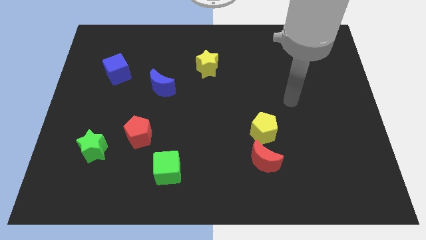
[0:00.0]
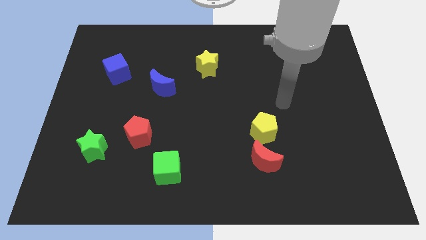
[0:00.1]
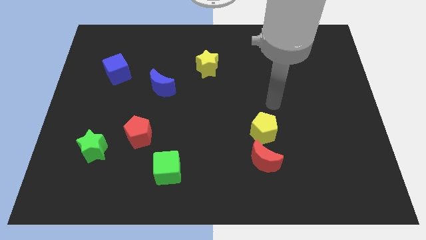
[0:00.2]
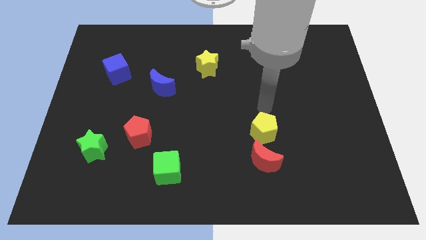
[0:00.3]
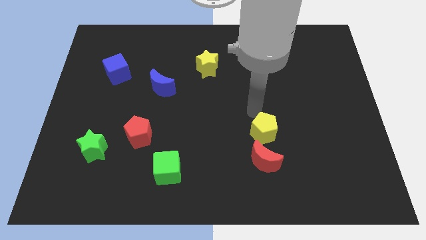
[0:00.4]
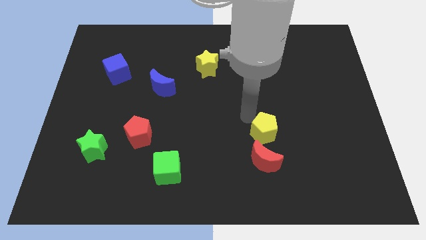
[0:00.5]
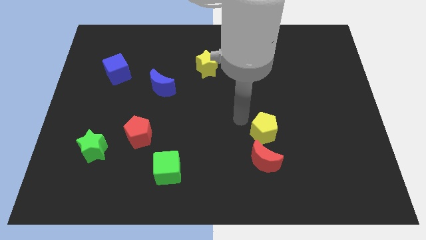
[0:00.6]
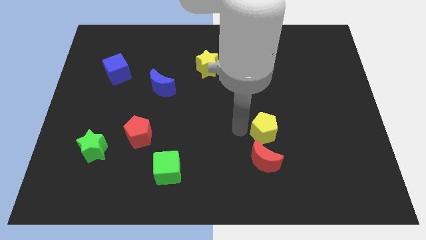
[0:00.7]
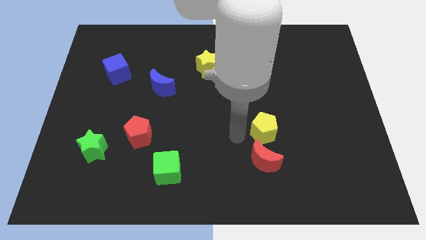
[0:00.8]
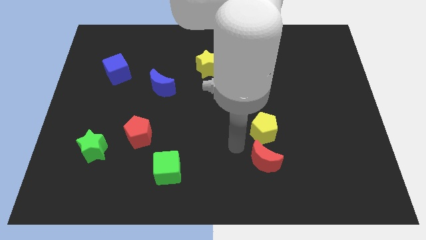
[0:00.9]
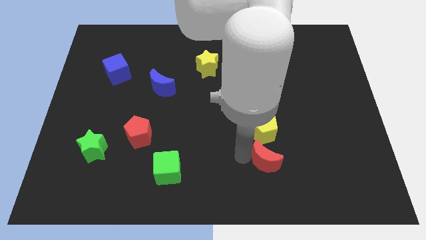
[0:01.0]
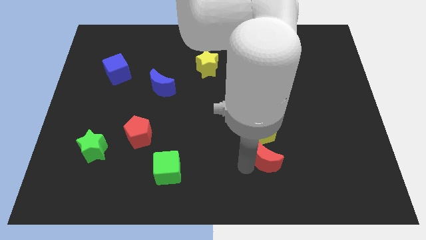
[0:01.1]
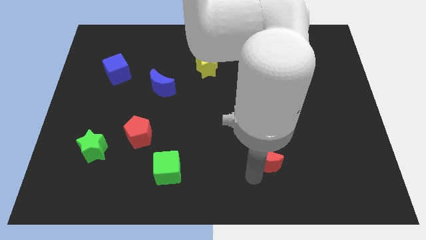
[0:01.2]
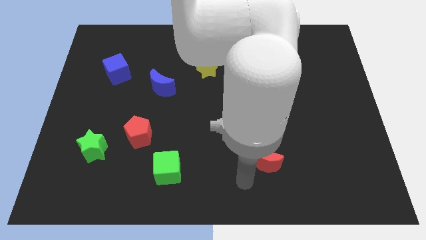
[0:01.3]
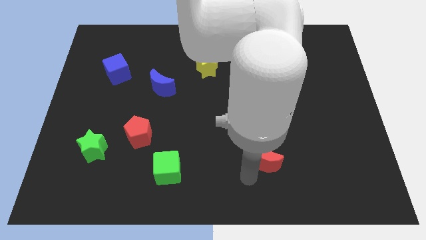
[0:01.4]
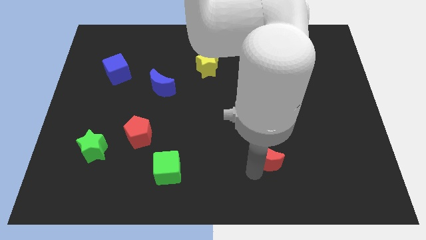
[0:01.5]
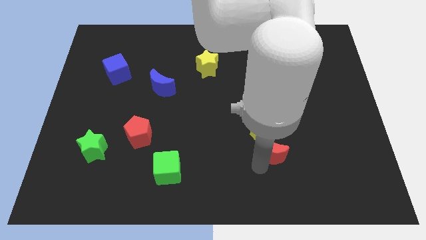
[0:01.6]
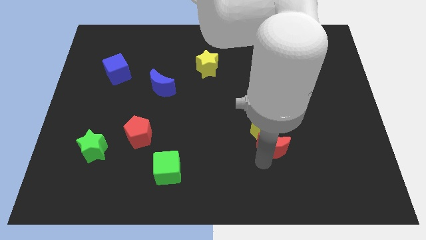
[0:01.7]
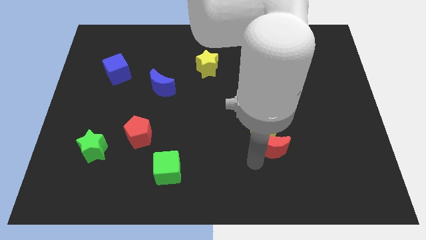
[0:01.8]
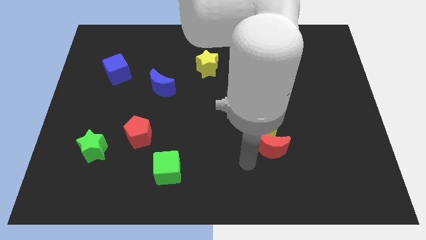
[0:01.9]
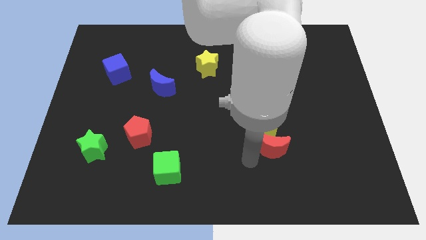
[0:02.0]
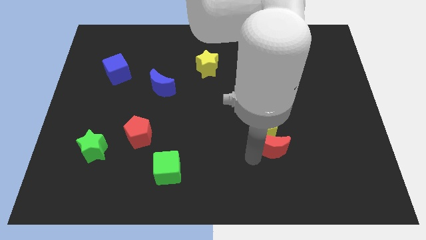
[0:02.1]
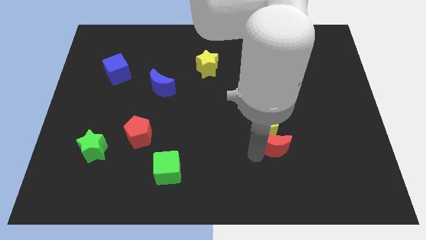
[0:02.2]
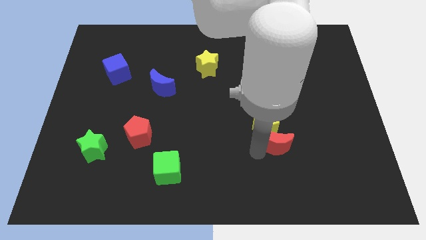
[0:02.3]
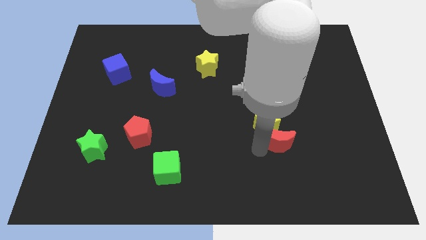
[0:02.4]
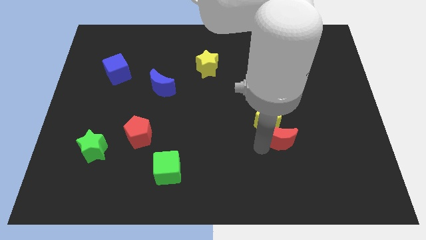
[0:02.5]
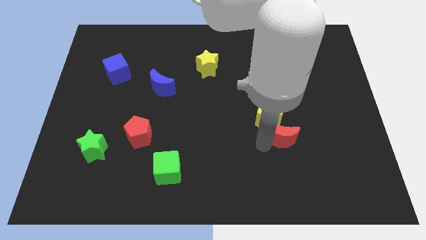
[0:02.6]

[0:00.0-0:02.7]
move the red moon upwards and right diagonally slightly

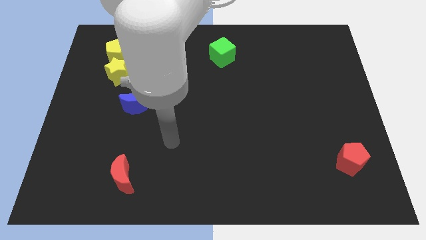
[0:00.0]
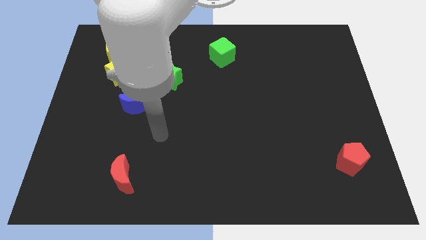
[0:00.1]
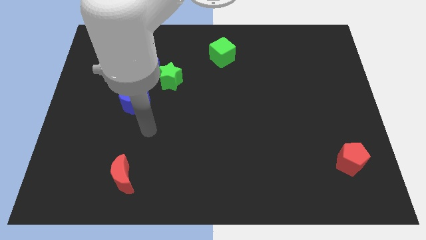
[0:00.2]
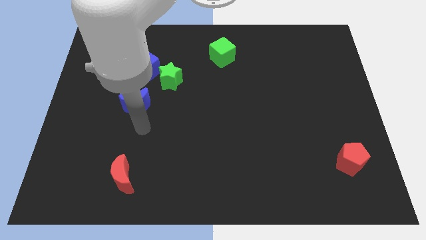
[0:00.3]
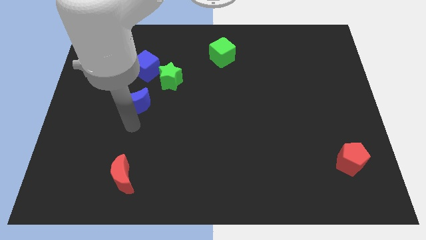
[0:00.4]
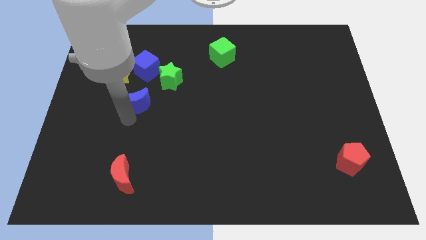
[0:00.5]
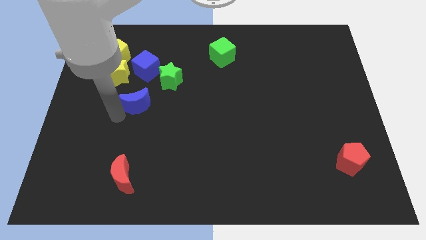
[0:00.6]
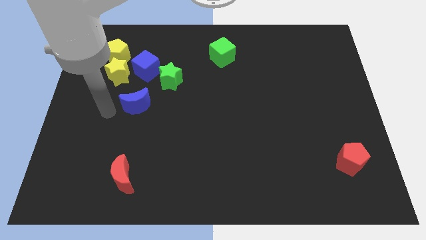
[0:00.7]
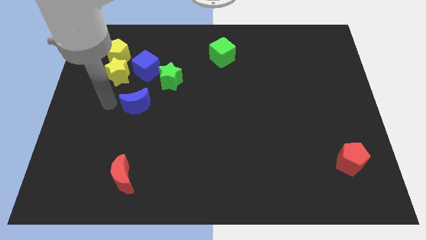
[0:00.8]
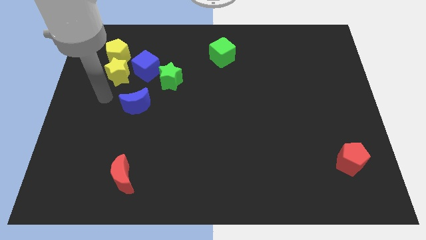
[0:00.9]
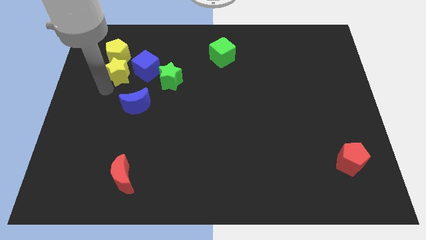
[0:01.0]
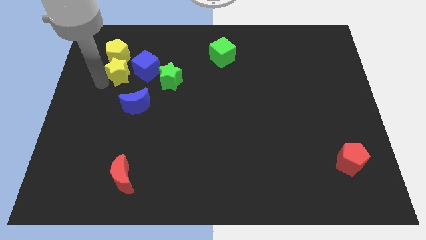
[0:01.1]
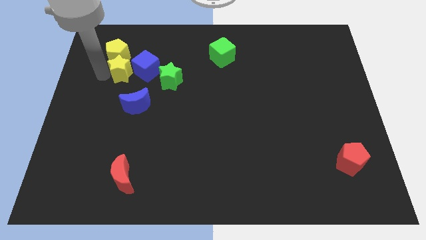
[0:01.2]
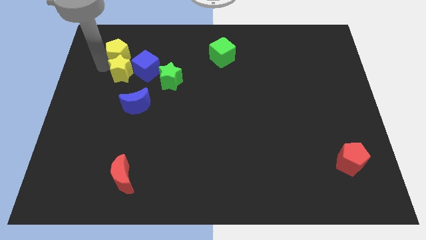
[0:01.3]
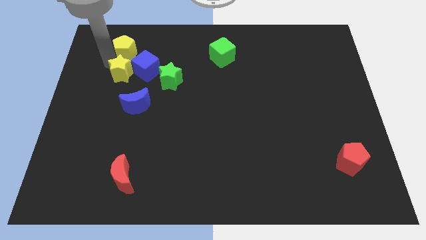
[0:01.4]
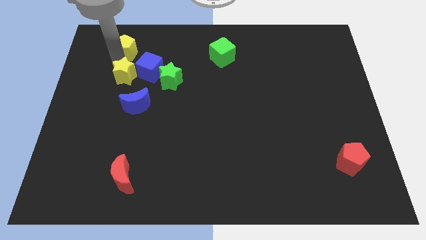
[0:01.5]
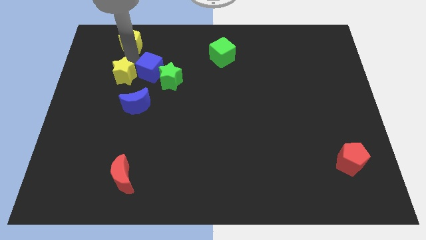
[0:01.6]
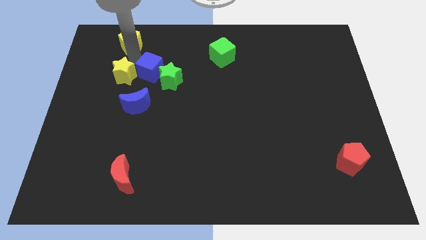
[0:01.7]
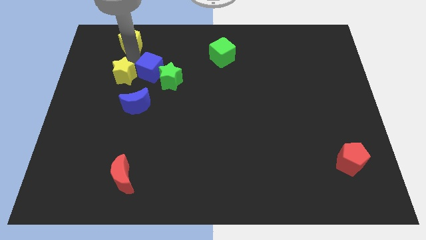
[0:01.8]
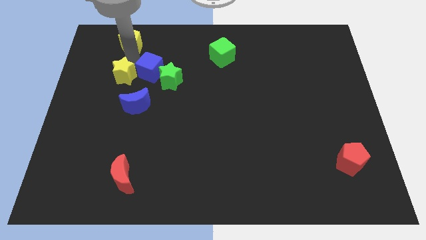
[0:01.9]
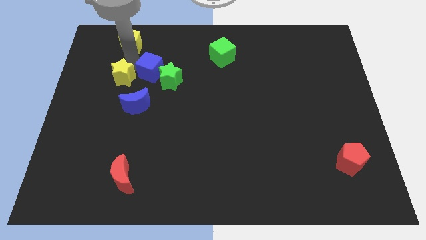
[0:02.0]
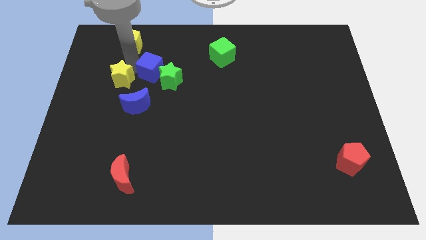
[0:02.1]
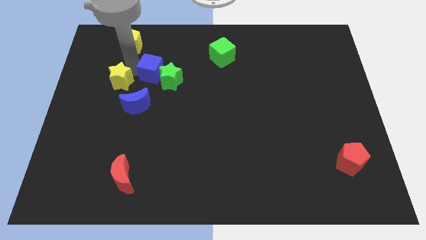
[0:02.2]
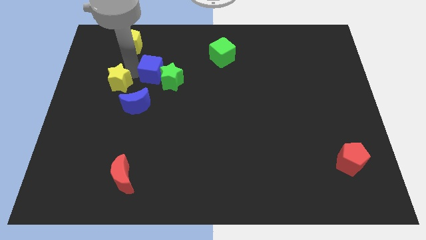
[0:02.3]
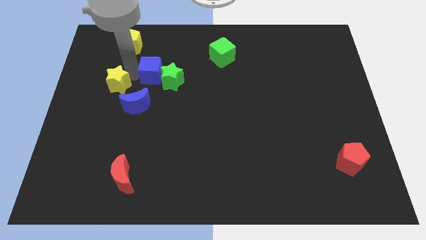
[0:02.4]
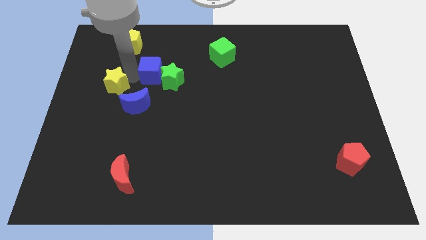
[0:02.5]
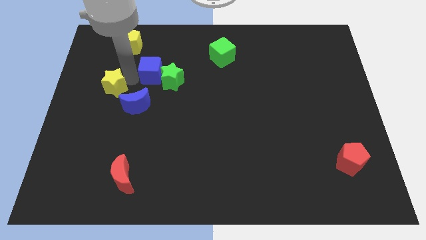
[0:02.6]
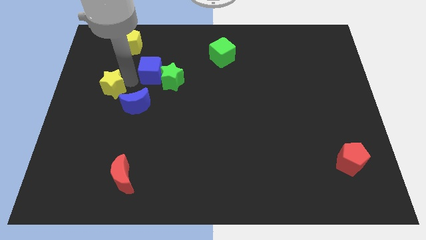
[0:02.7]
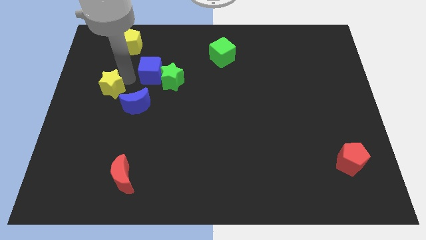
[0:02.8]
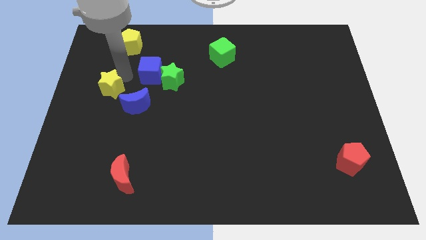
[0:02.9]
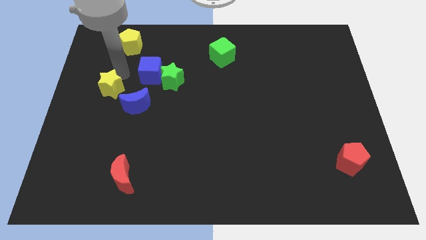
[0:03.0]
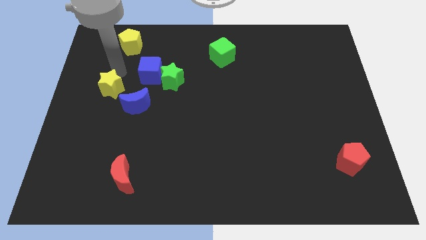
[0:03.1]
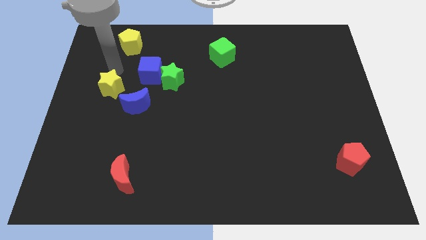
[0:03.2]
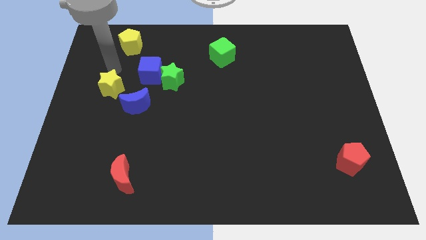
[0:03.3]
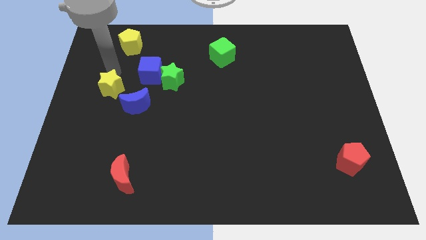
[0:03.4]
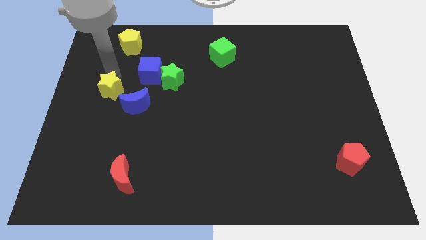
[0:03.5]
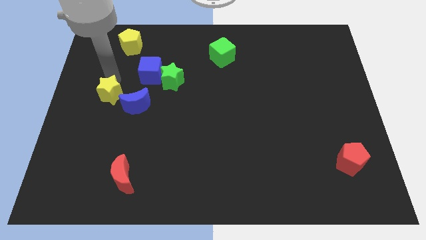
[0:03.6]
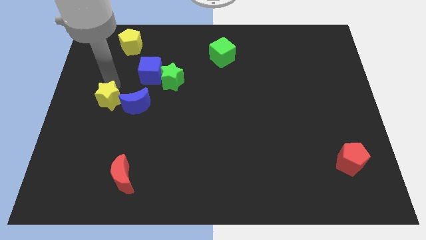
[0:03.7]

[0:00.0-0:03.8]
move the yellow star a bit downwards

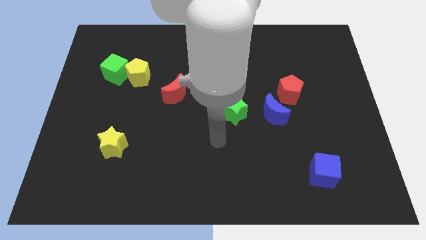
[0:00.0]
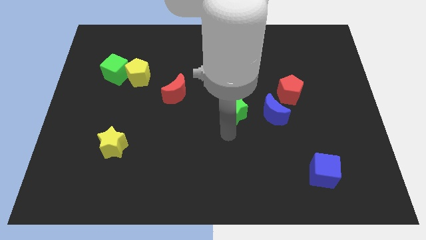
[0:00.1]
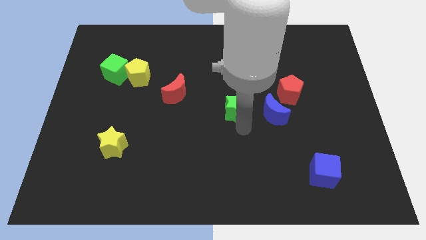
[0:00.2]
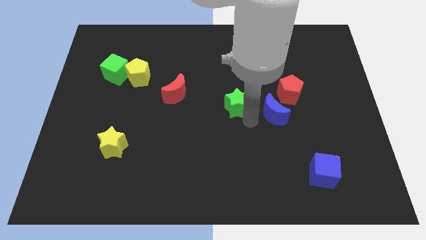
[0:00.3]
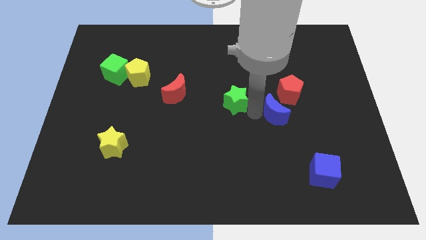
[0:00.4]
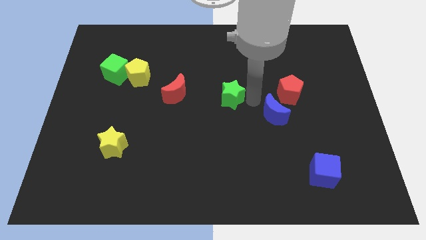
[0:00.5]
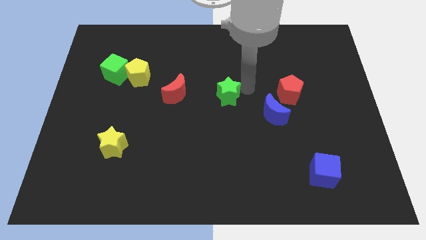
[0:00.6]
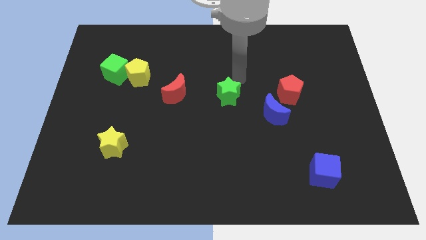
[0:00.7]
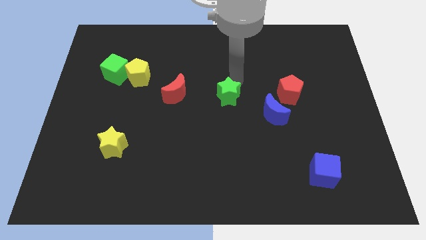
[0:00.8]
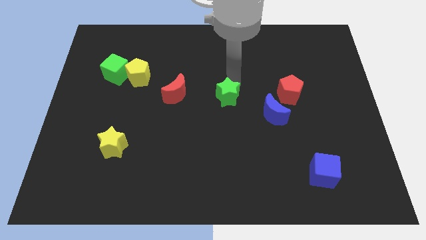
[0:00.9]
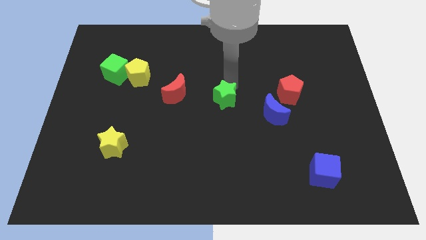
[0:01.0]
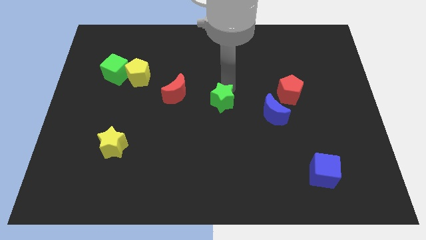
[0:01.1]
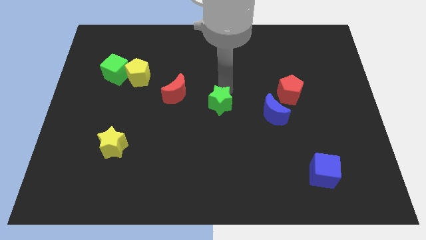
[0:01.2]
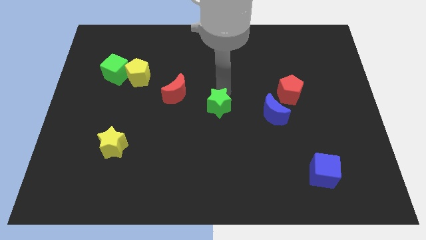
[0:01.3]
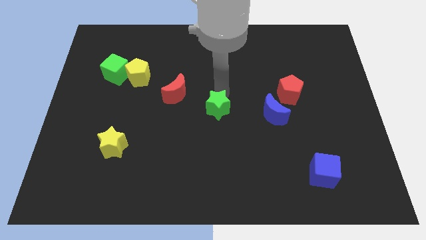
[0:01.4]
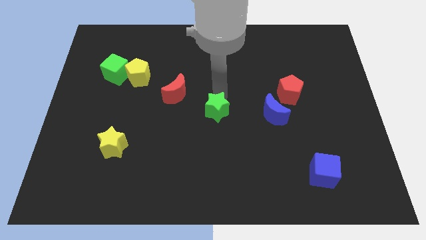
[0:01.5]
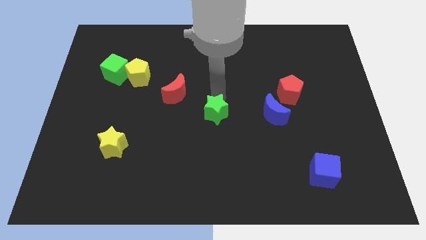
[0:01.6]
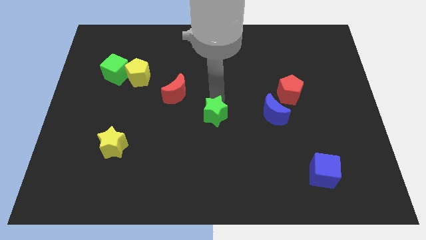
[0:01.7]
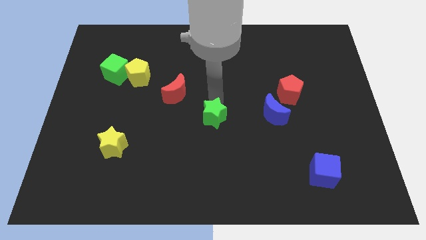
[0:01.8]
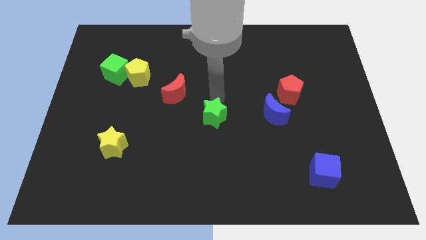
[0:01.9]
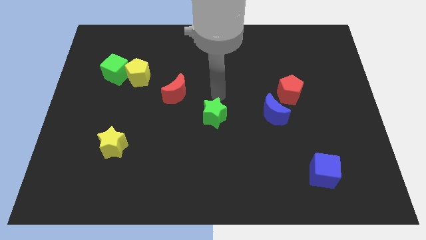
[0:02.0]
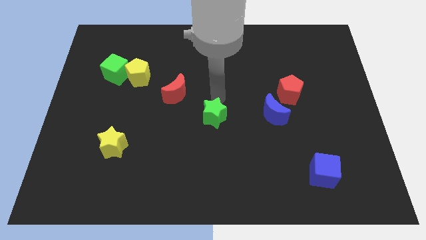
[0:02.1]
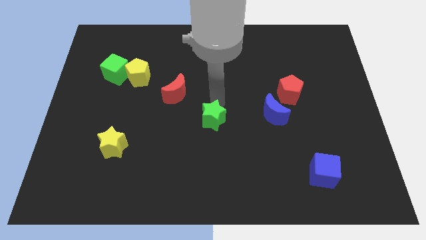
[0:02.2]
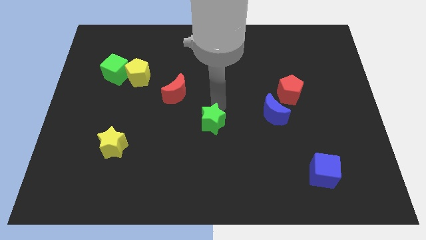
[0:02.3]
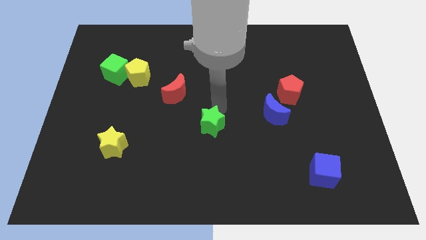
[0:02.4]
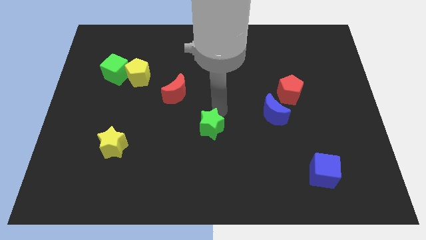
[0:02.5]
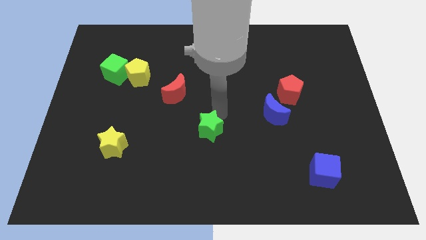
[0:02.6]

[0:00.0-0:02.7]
push the green star downwards and left diagonally a little bit
